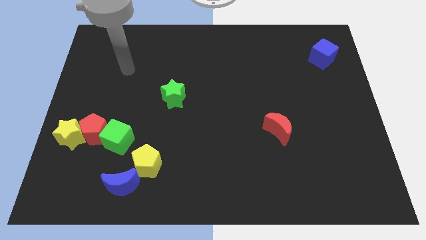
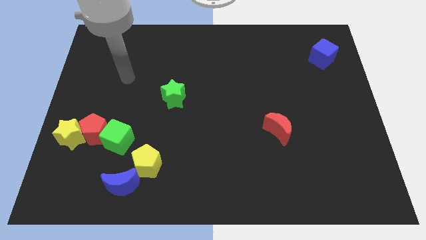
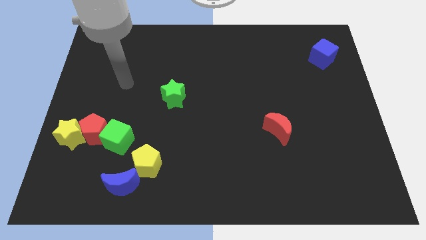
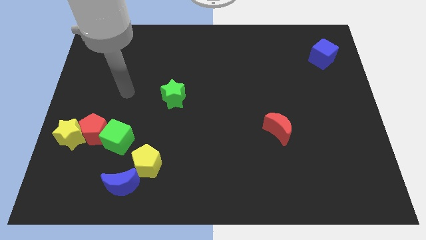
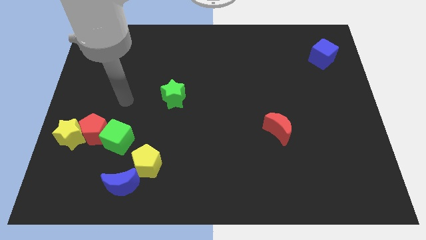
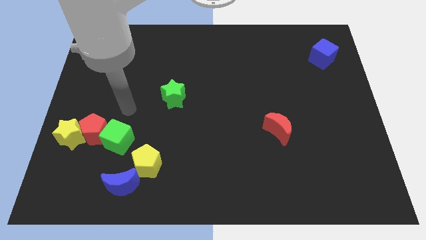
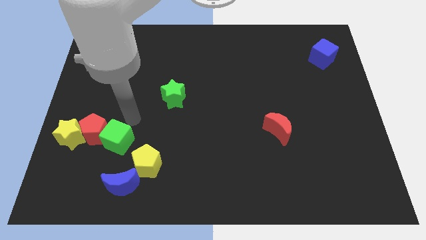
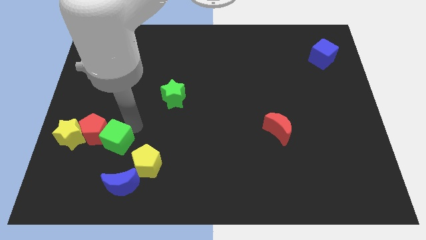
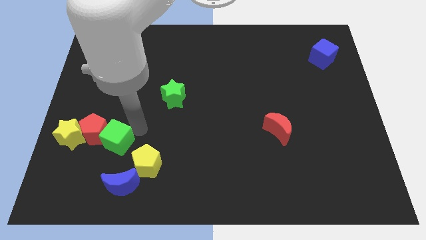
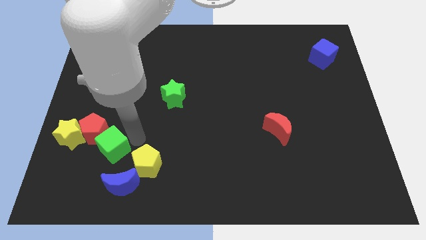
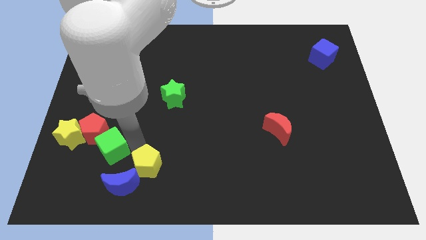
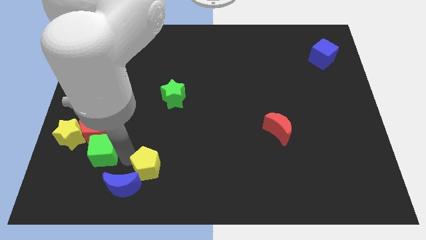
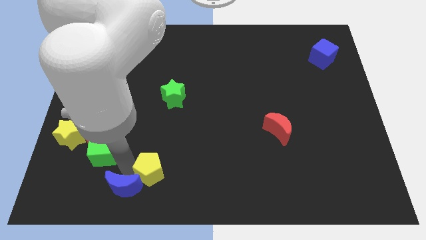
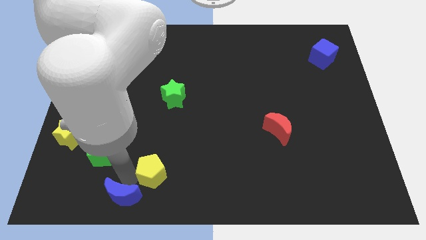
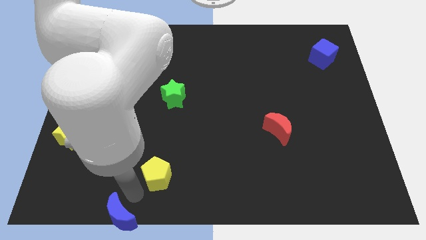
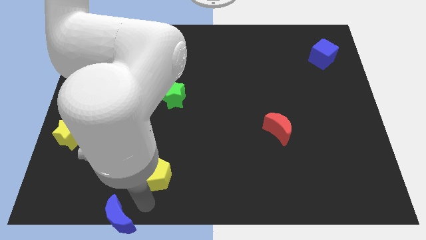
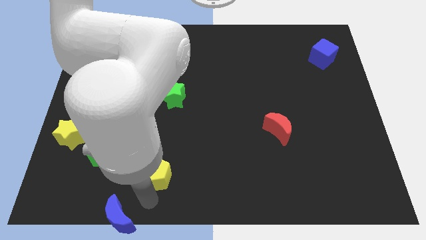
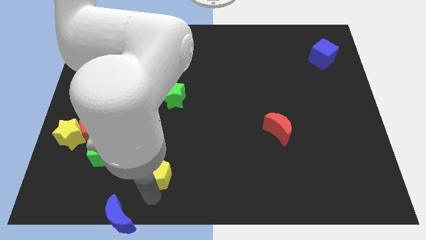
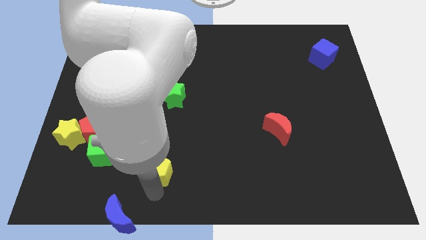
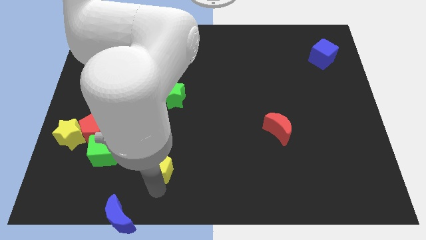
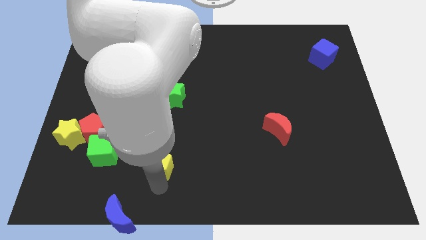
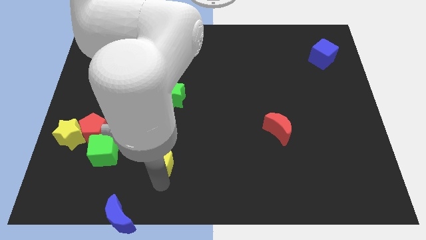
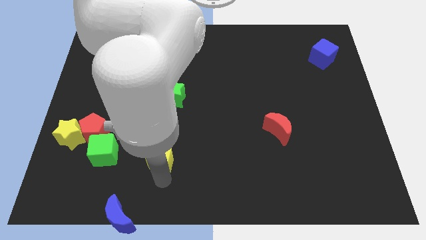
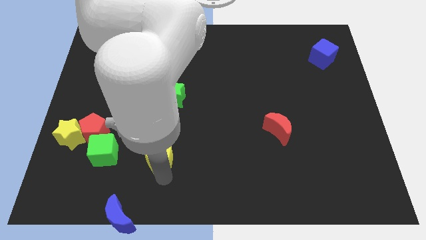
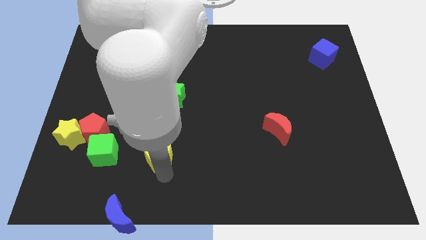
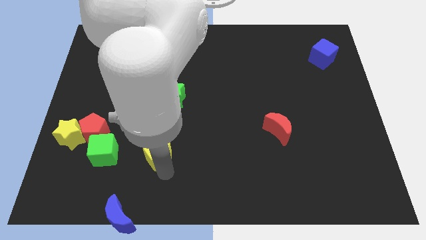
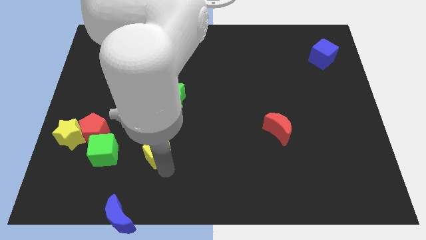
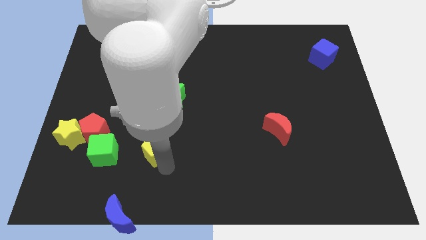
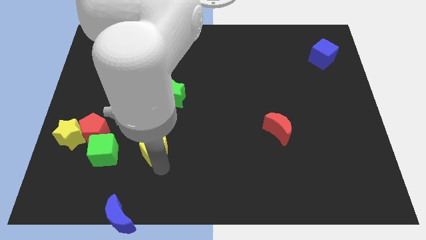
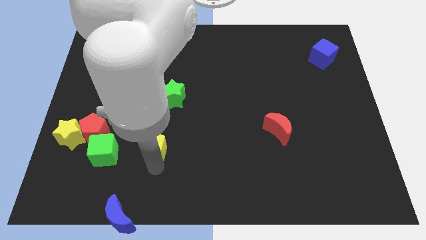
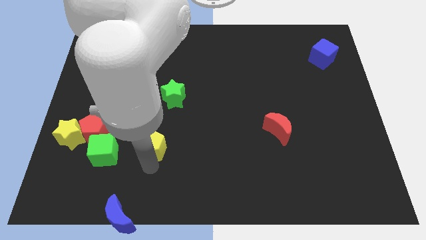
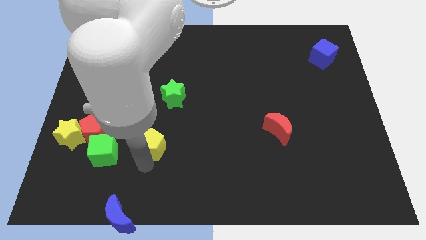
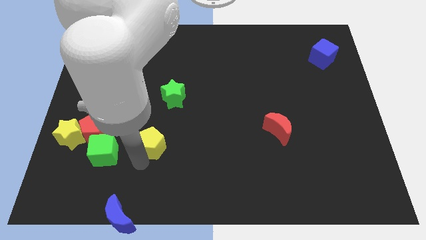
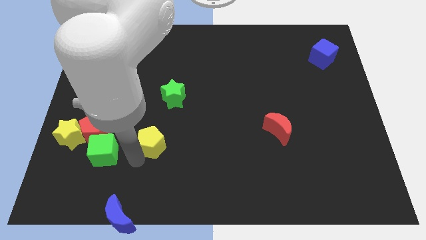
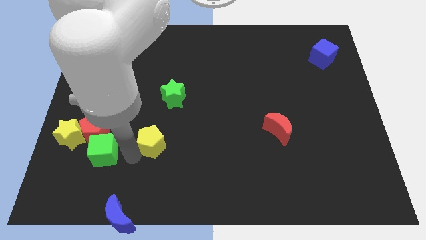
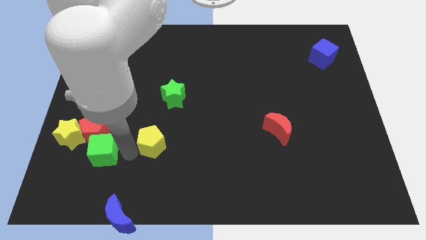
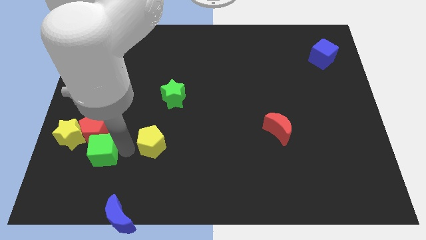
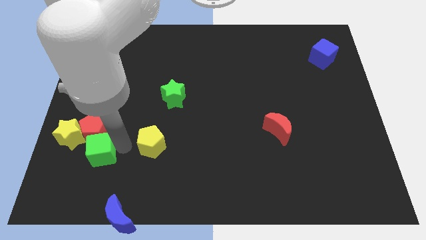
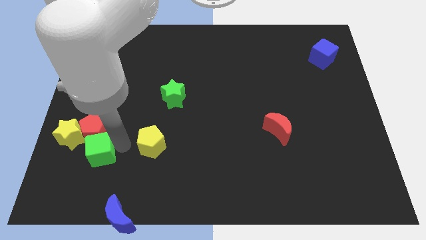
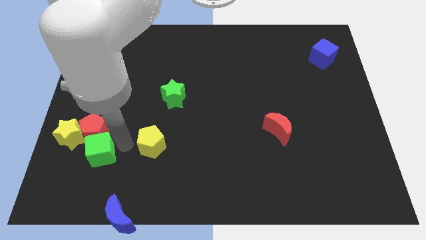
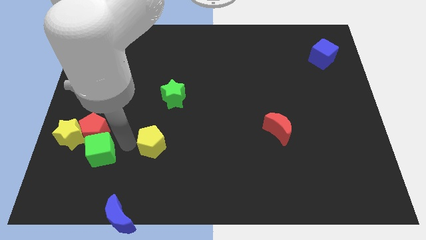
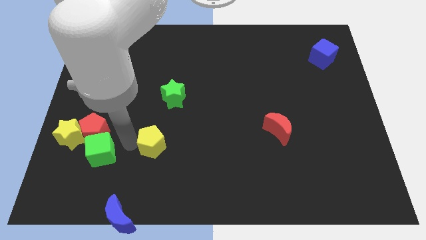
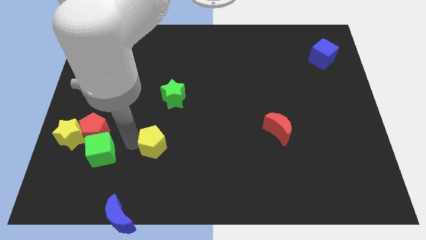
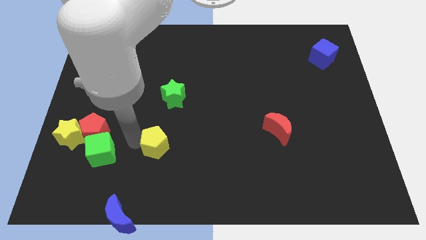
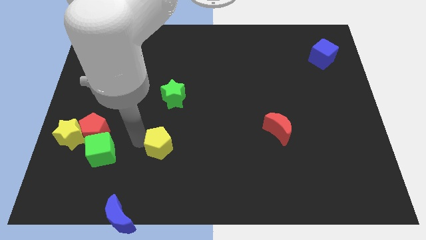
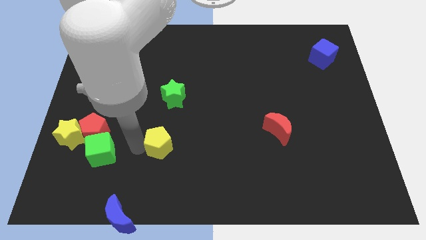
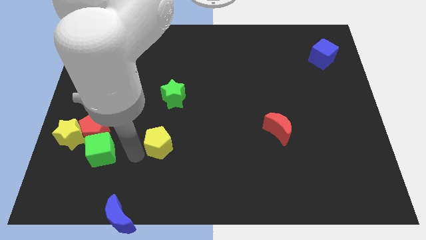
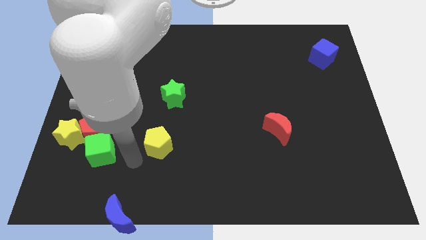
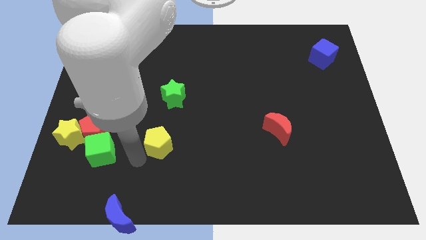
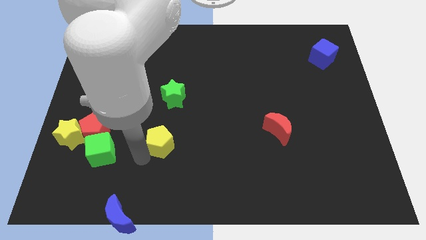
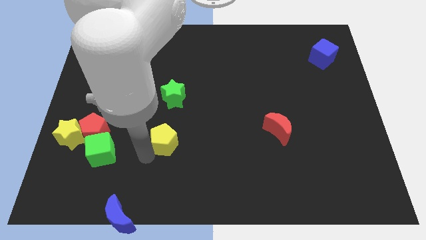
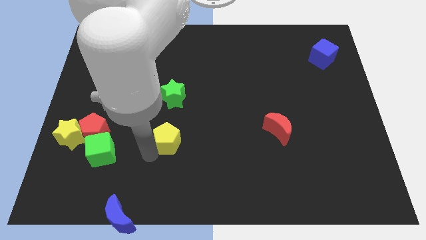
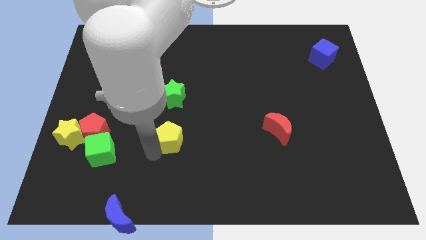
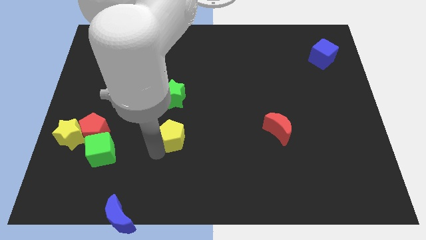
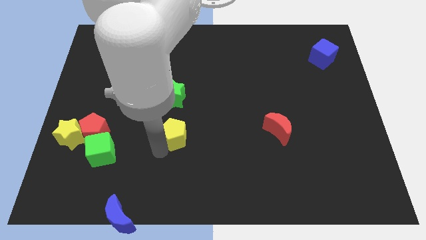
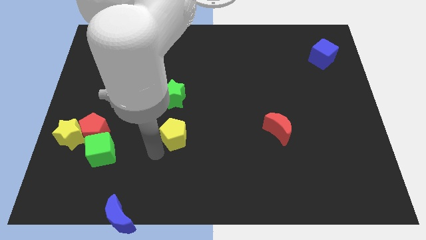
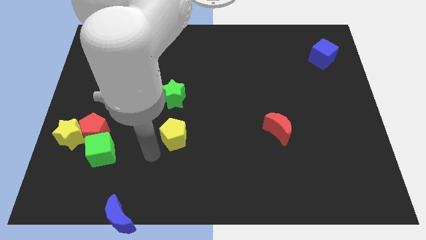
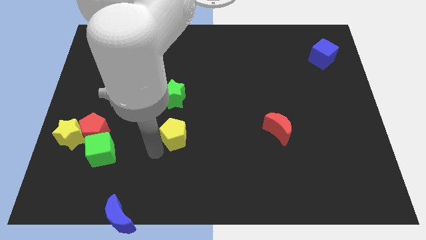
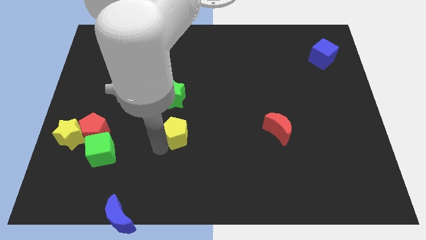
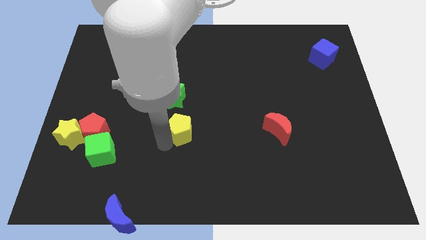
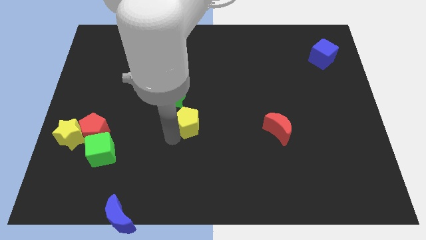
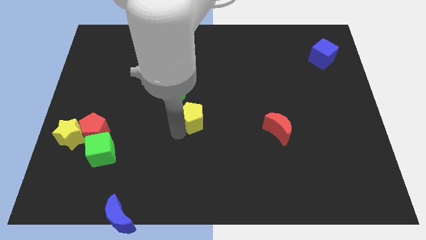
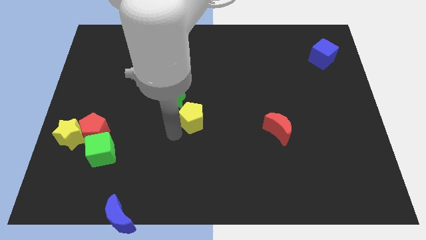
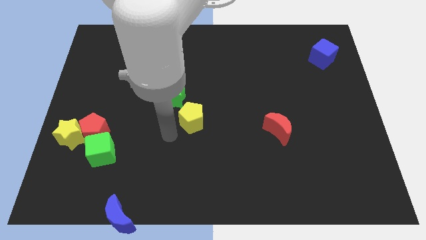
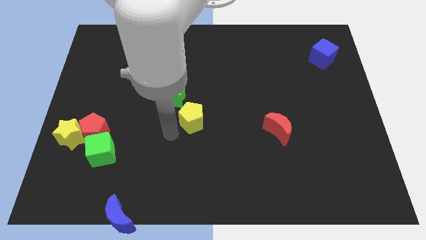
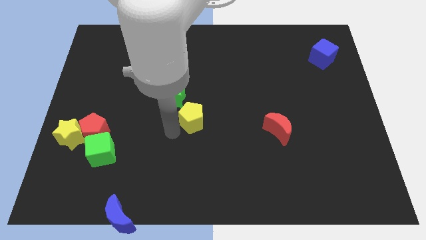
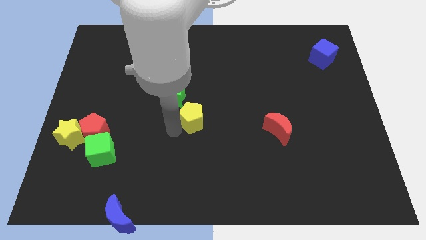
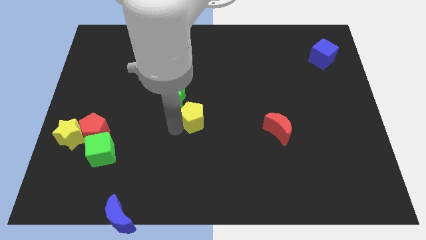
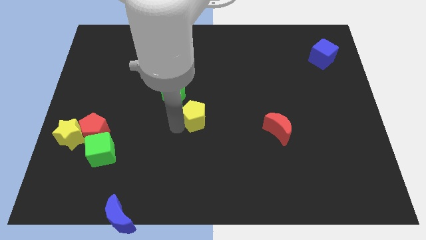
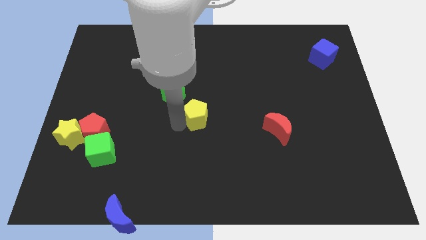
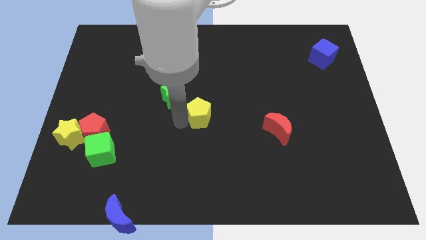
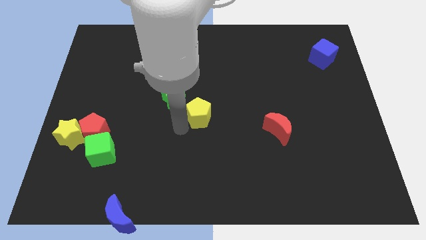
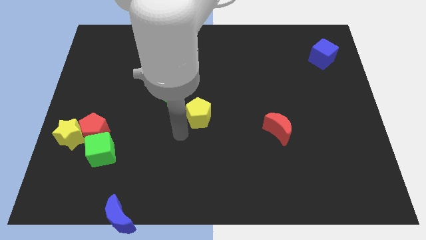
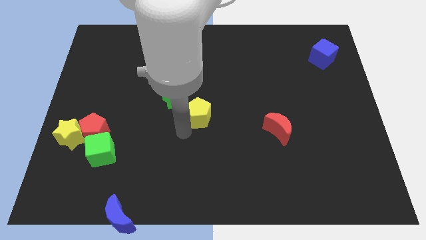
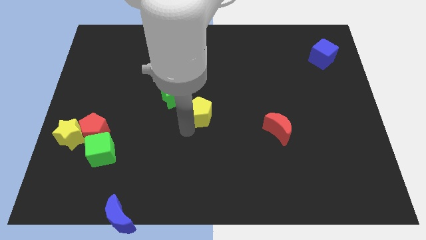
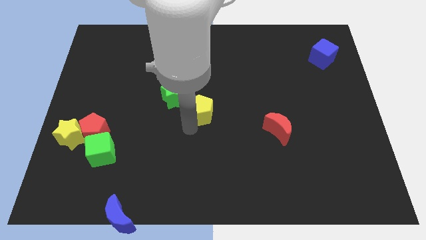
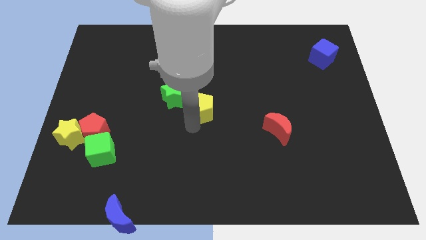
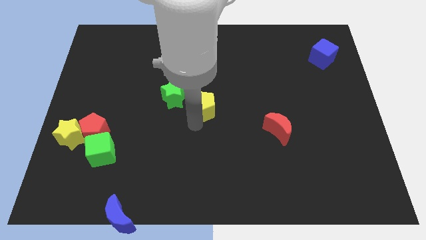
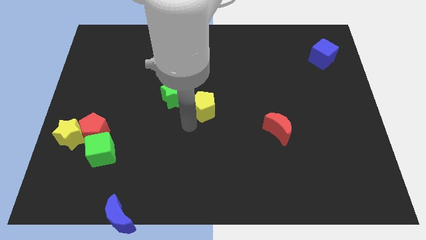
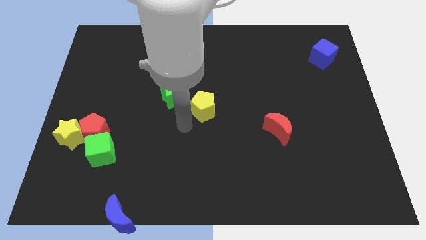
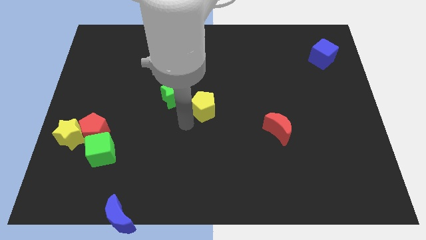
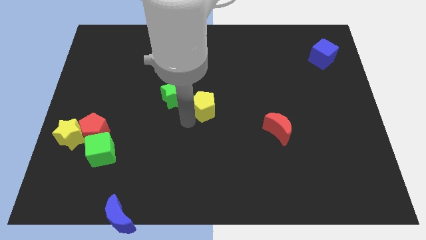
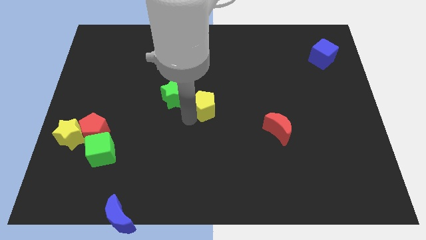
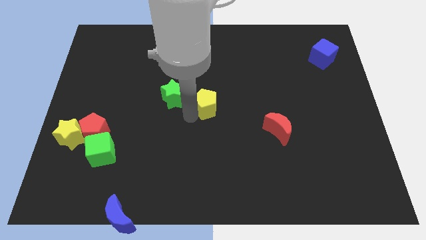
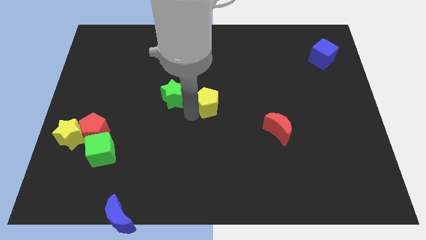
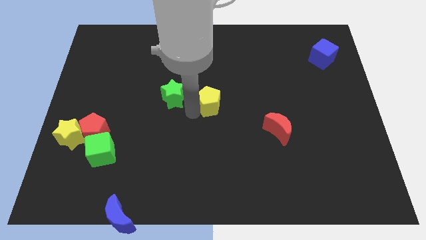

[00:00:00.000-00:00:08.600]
push the yellow pentagon up and right diagonally
